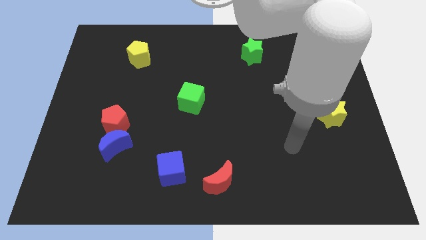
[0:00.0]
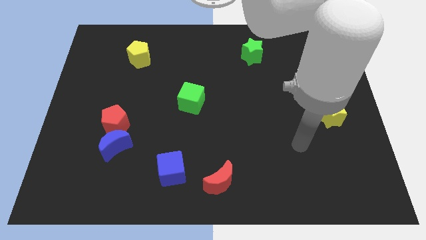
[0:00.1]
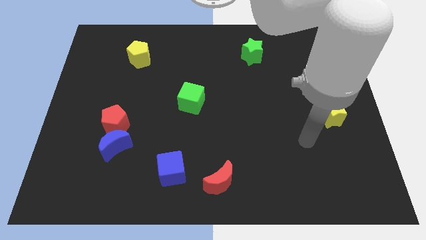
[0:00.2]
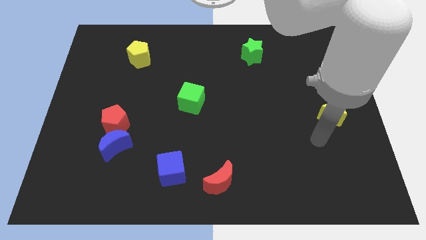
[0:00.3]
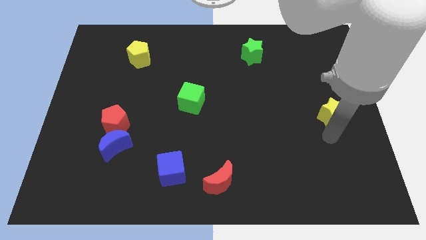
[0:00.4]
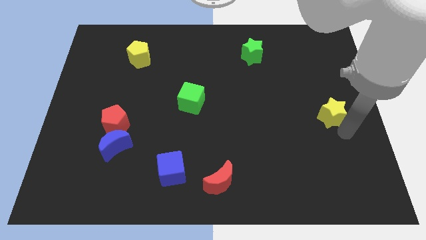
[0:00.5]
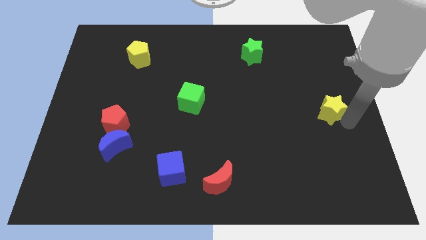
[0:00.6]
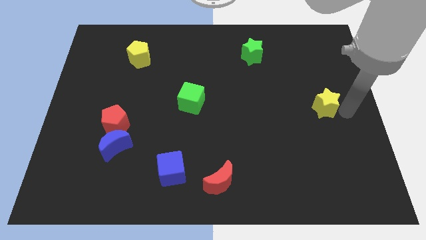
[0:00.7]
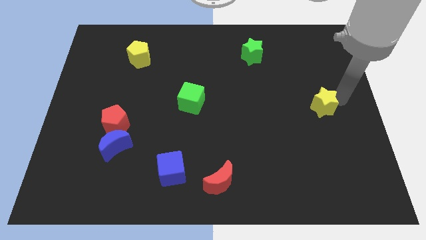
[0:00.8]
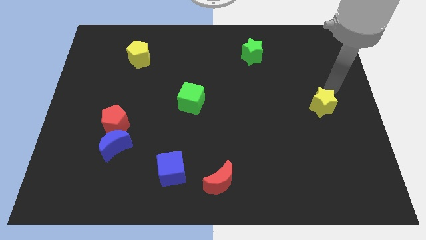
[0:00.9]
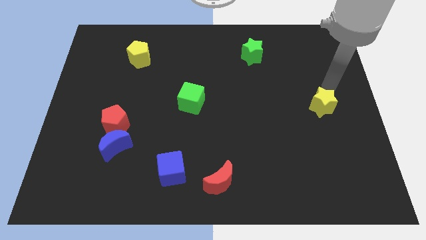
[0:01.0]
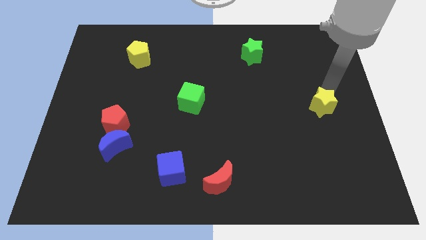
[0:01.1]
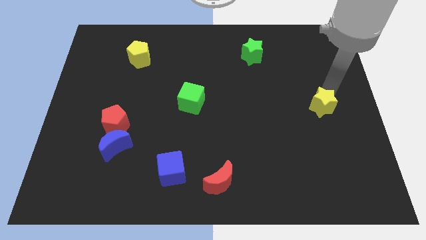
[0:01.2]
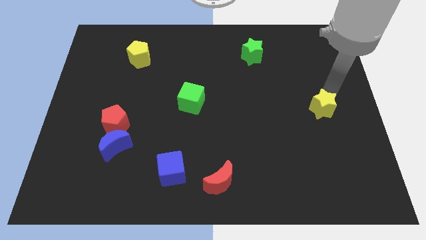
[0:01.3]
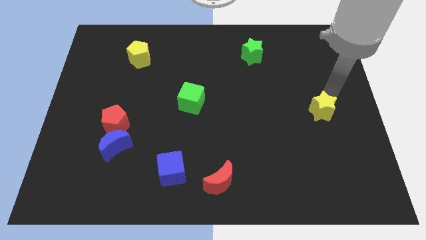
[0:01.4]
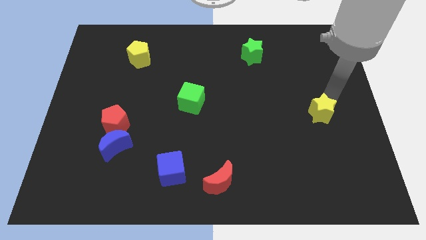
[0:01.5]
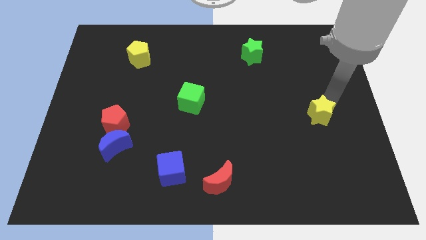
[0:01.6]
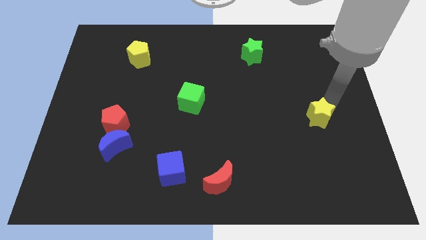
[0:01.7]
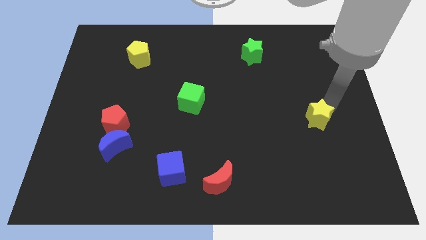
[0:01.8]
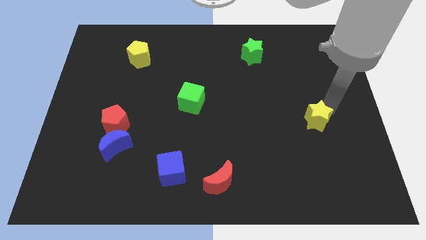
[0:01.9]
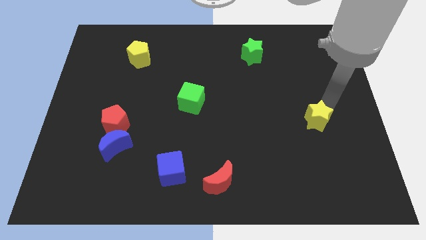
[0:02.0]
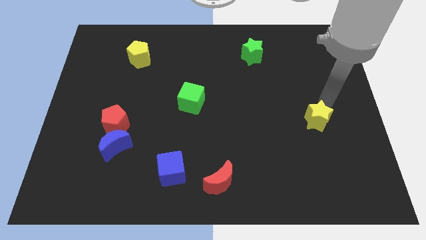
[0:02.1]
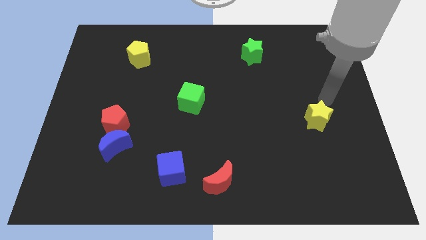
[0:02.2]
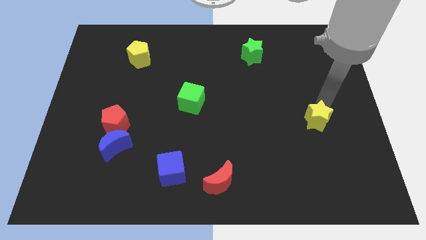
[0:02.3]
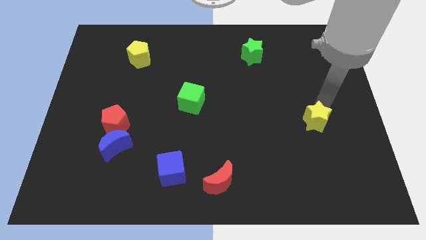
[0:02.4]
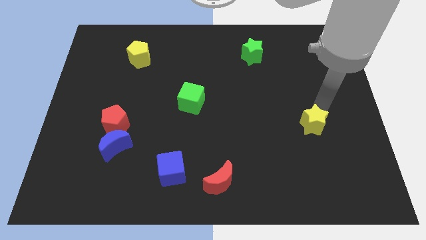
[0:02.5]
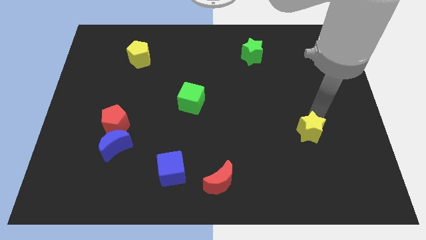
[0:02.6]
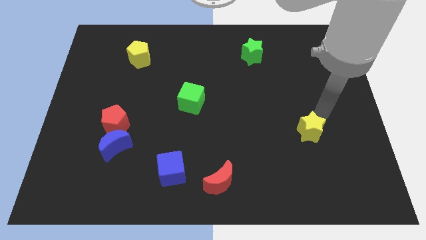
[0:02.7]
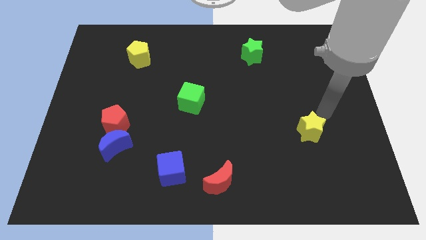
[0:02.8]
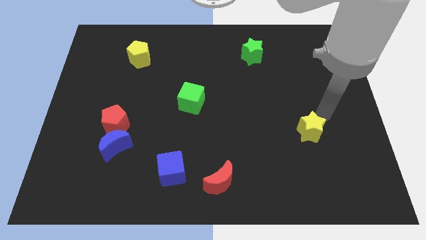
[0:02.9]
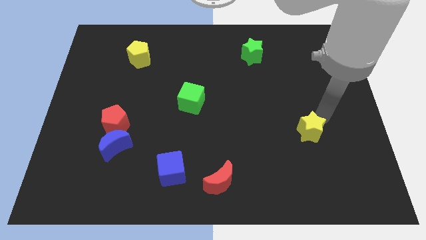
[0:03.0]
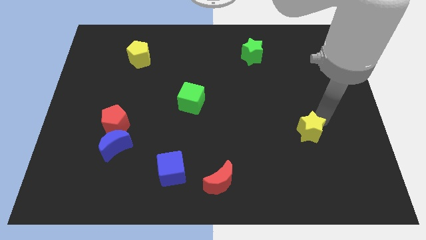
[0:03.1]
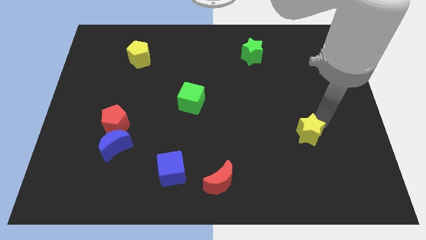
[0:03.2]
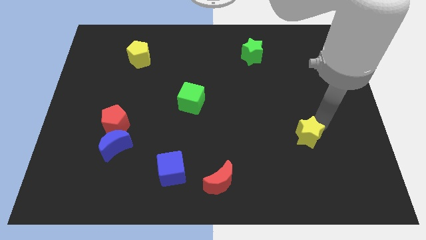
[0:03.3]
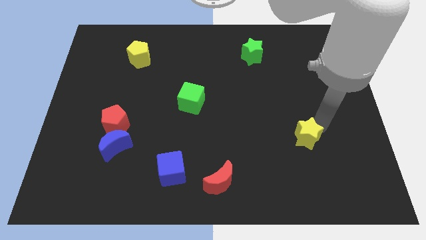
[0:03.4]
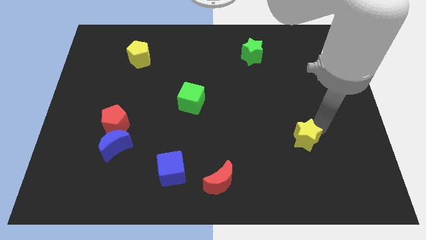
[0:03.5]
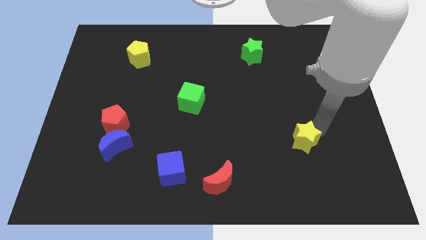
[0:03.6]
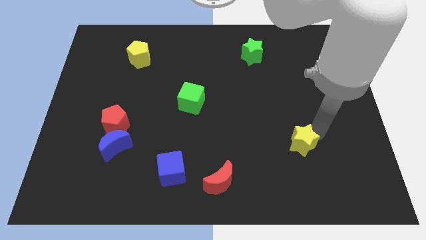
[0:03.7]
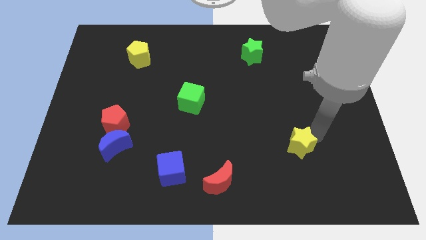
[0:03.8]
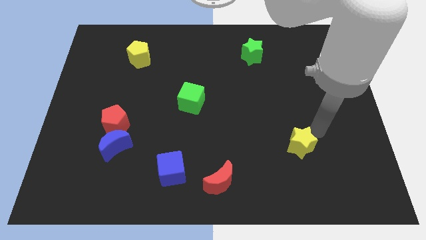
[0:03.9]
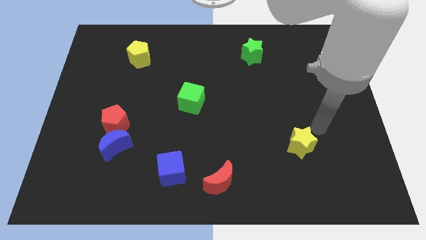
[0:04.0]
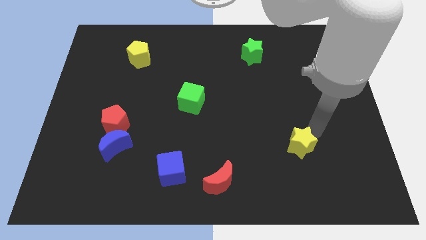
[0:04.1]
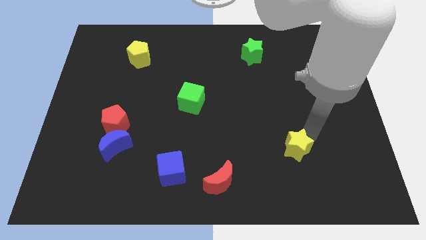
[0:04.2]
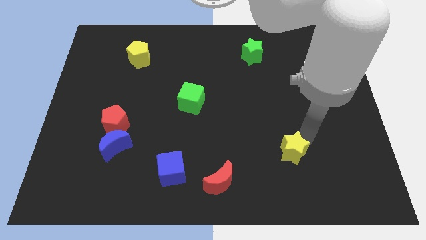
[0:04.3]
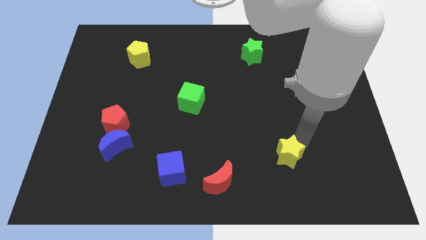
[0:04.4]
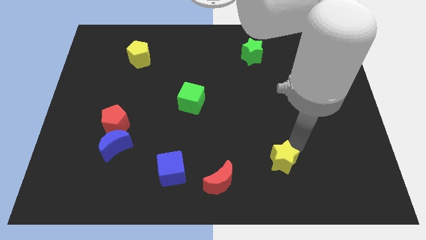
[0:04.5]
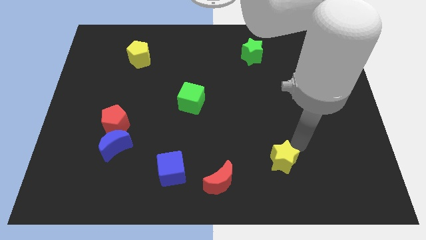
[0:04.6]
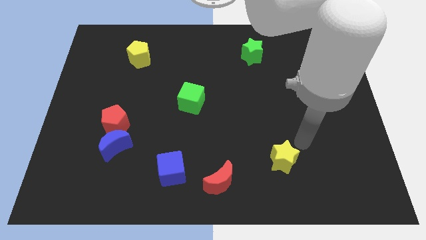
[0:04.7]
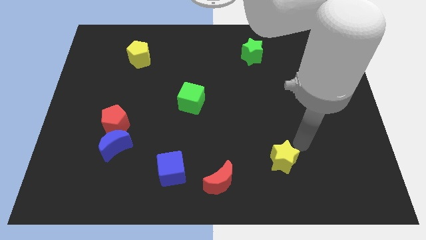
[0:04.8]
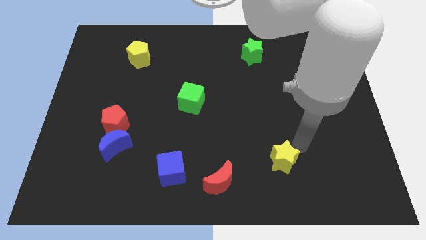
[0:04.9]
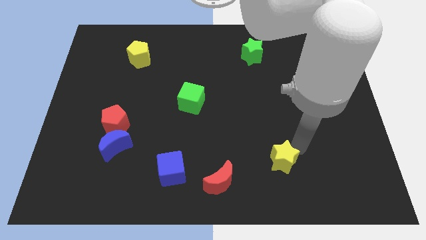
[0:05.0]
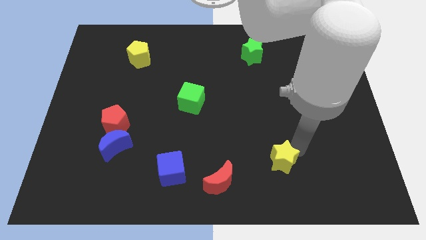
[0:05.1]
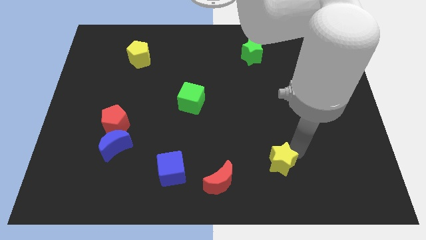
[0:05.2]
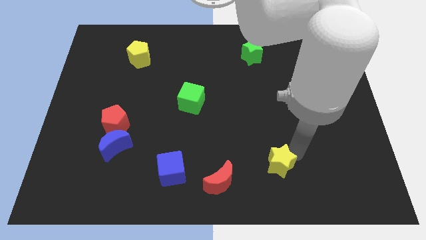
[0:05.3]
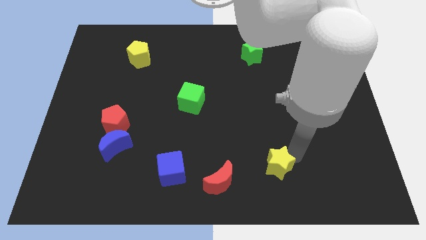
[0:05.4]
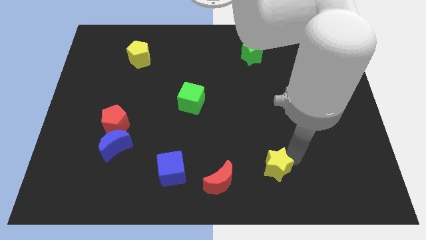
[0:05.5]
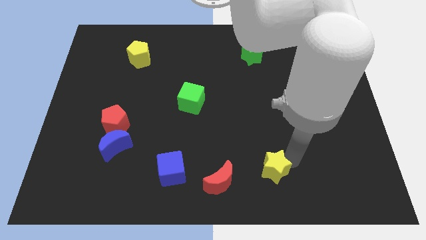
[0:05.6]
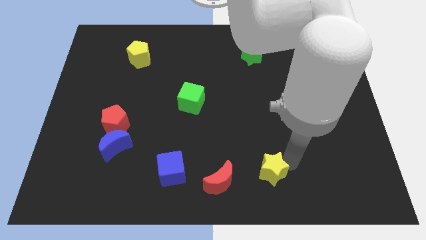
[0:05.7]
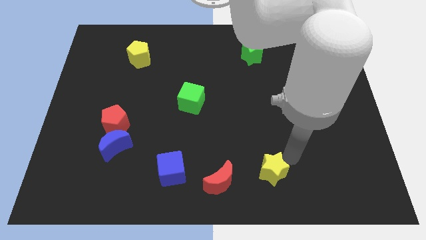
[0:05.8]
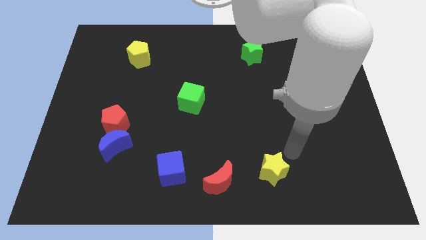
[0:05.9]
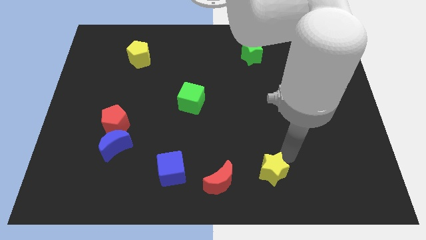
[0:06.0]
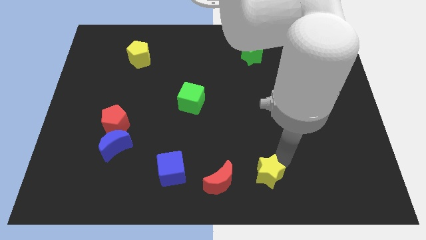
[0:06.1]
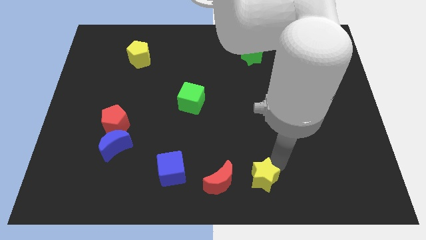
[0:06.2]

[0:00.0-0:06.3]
slide the yellow star to the bottom side
